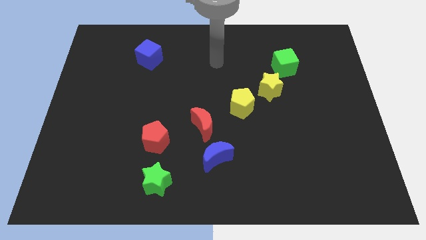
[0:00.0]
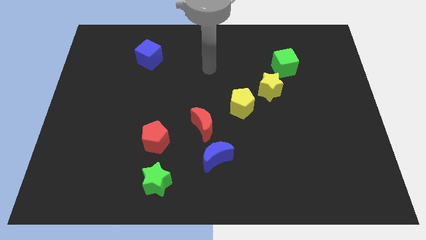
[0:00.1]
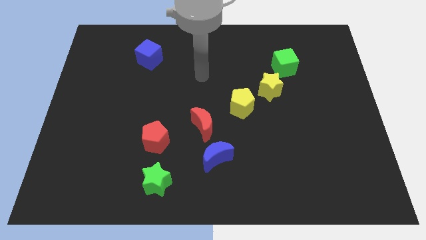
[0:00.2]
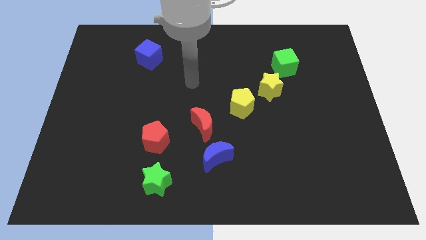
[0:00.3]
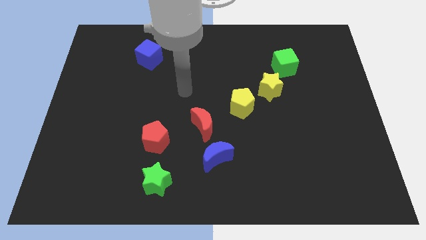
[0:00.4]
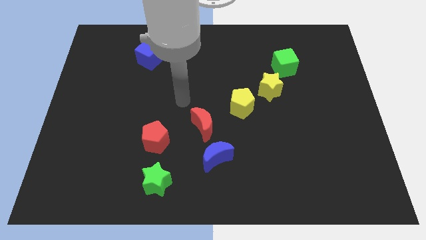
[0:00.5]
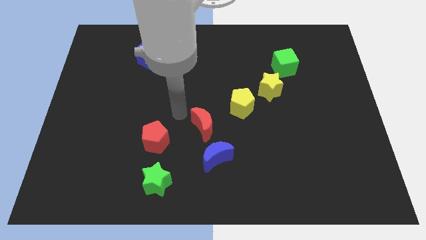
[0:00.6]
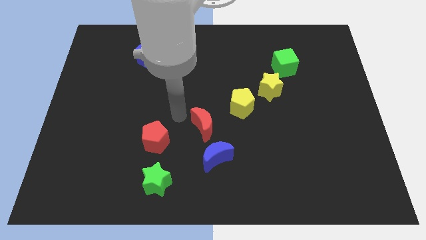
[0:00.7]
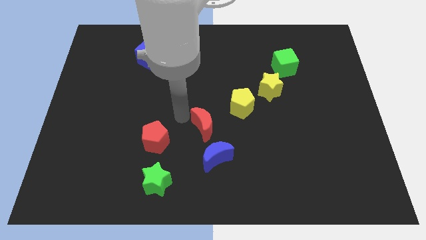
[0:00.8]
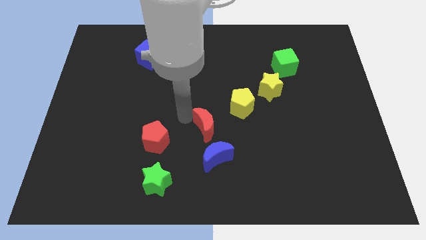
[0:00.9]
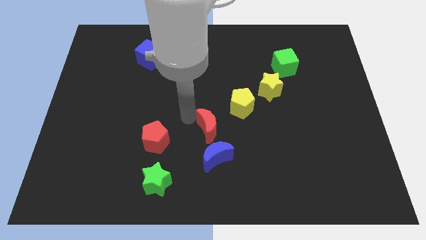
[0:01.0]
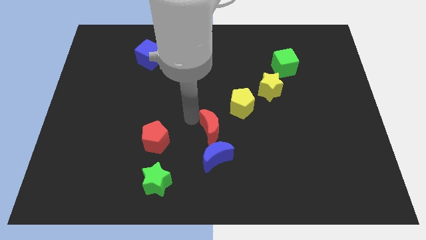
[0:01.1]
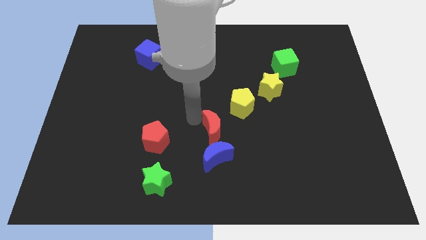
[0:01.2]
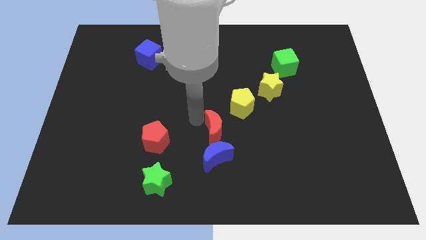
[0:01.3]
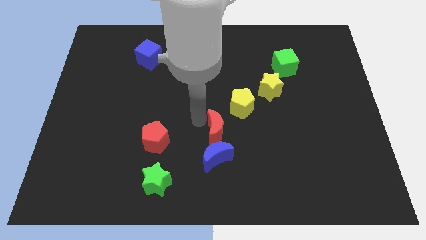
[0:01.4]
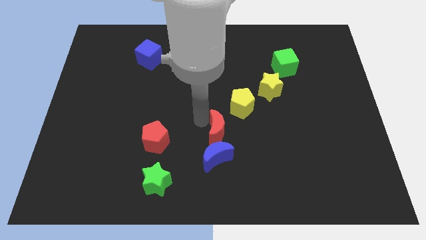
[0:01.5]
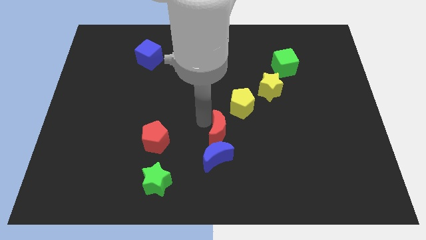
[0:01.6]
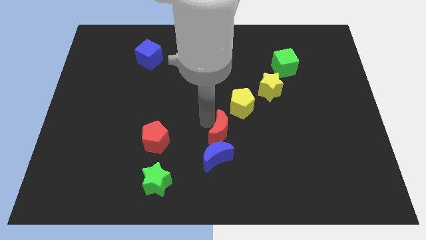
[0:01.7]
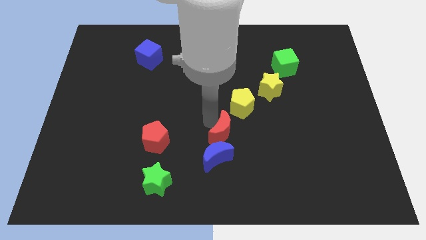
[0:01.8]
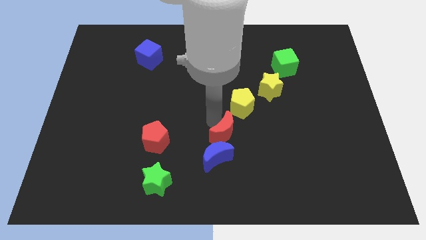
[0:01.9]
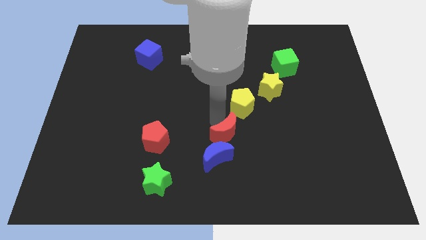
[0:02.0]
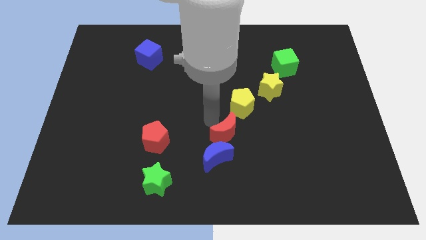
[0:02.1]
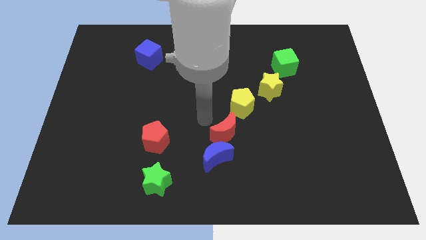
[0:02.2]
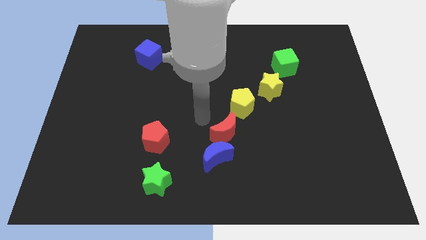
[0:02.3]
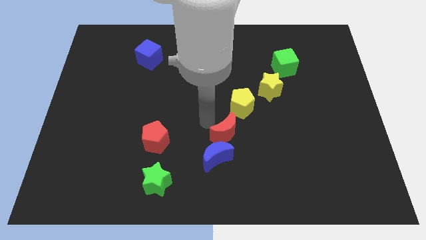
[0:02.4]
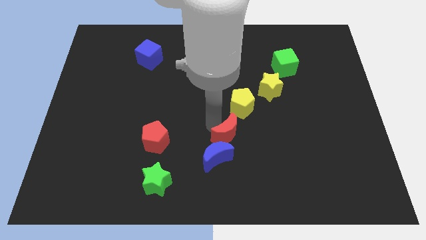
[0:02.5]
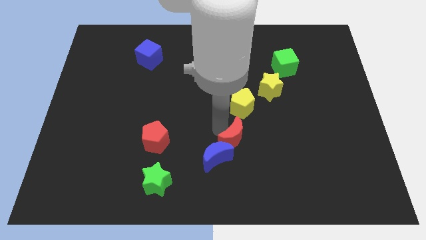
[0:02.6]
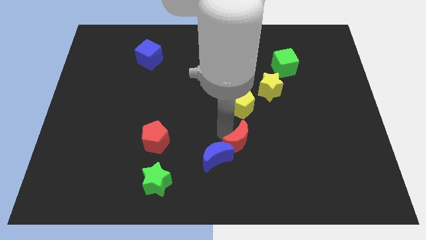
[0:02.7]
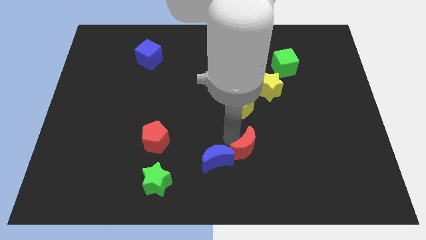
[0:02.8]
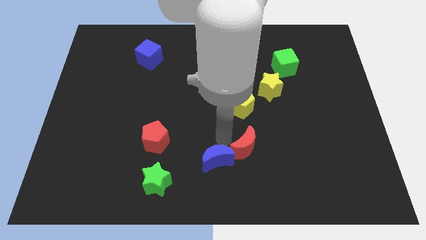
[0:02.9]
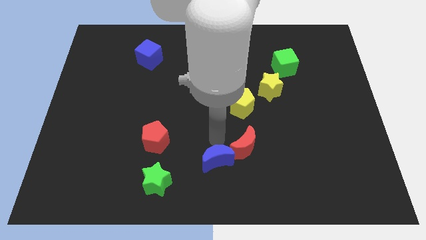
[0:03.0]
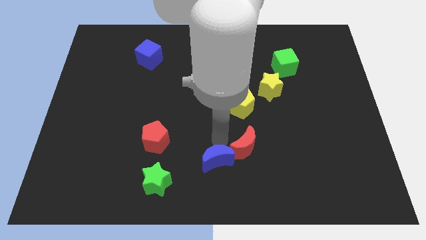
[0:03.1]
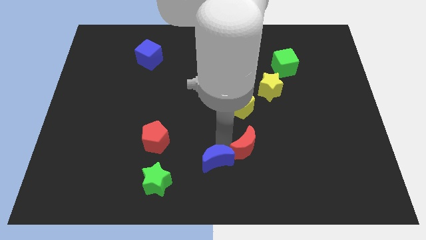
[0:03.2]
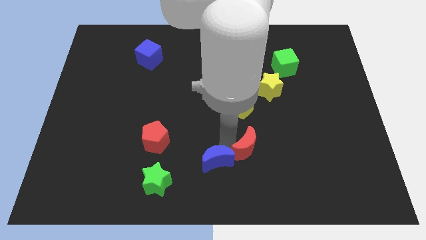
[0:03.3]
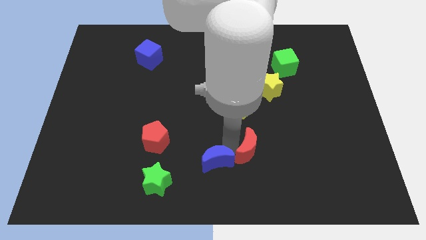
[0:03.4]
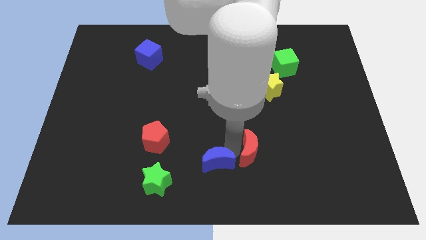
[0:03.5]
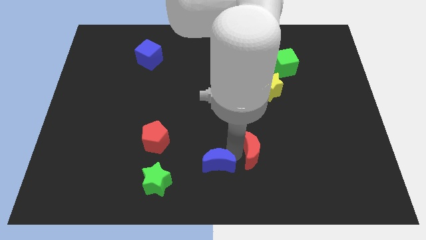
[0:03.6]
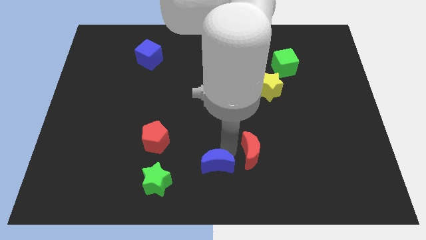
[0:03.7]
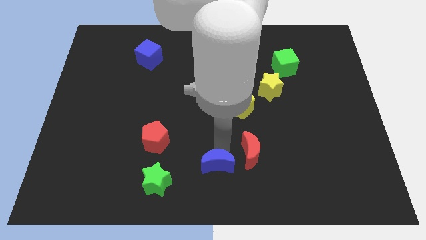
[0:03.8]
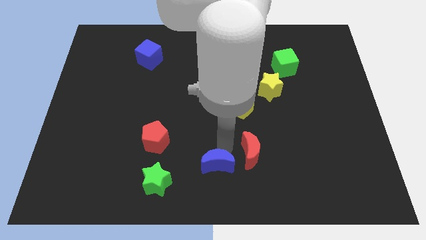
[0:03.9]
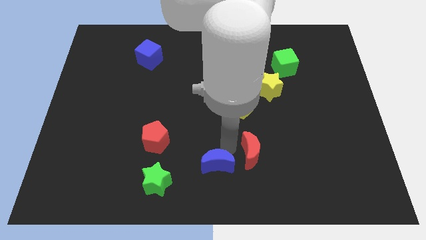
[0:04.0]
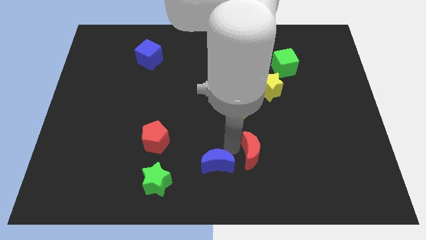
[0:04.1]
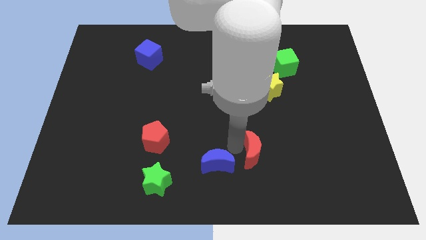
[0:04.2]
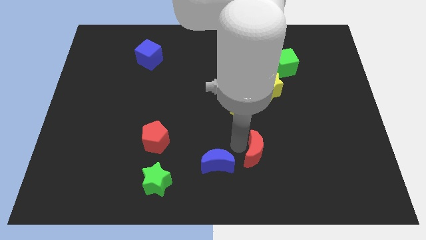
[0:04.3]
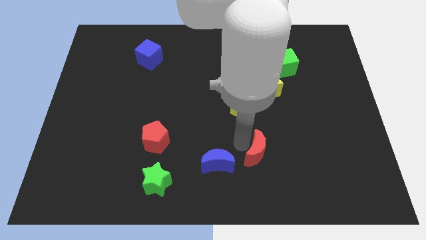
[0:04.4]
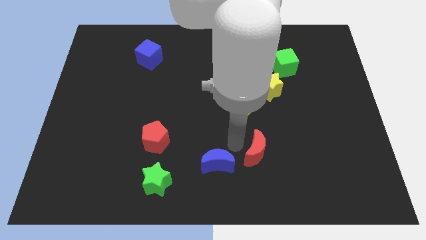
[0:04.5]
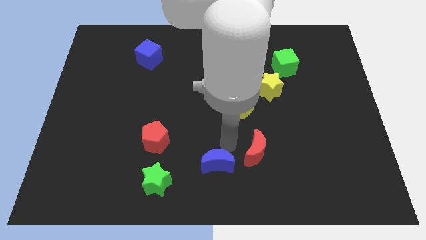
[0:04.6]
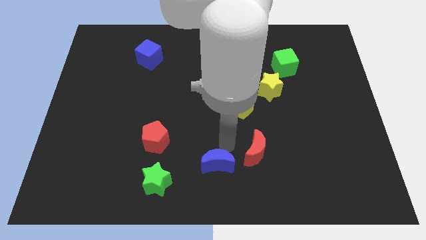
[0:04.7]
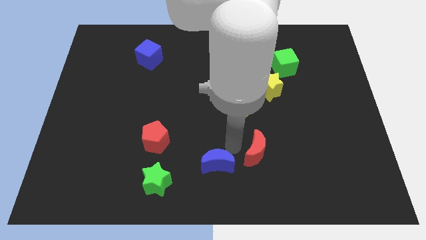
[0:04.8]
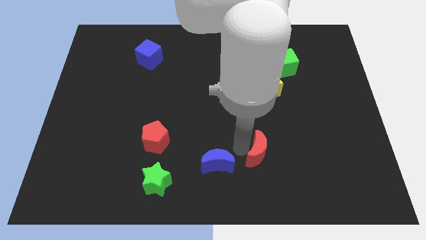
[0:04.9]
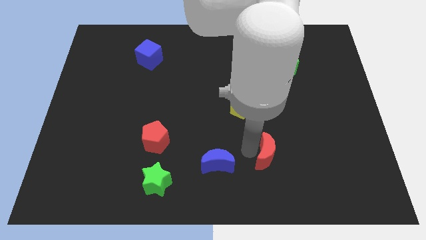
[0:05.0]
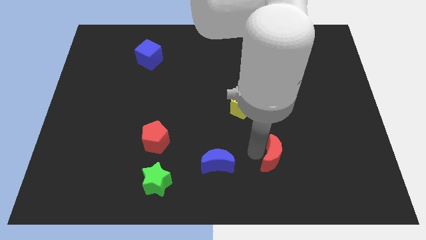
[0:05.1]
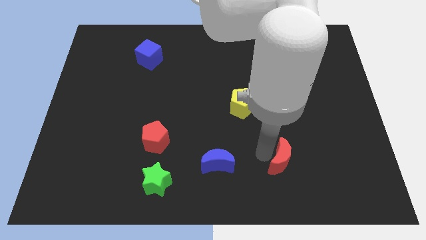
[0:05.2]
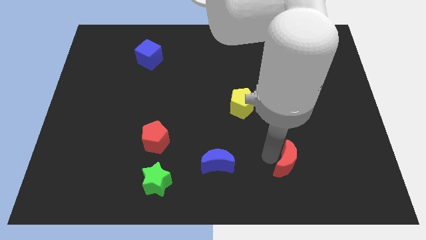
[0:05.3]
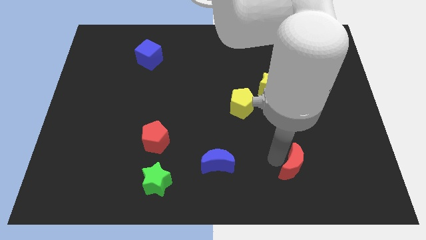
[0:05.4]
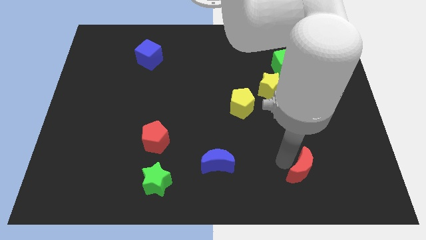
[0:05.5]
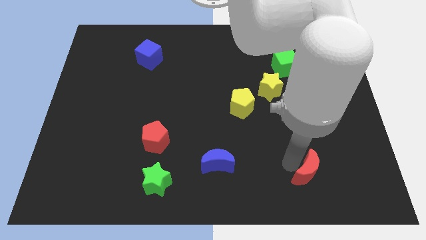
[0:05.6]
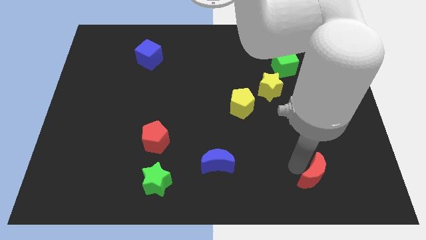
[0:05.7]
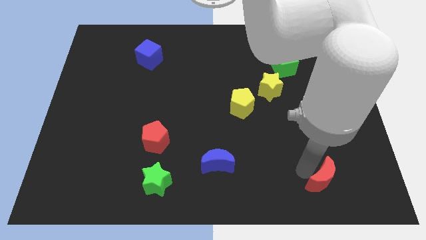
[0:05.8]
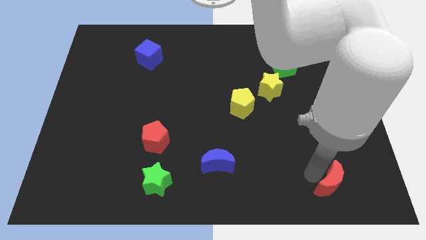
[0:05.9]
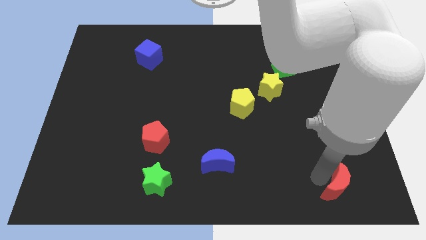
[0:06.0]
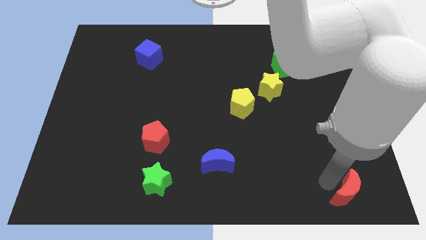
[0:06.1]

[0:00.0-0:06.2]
slide the red moon to the lower right corner
